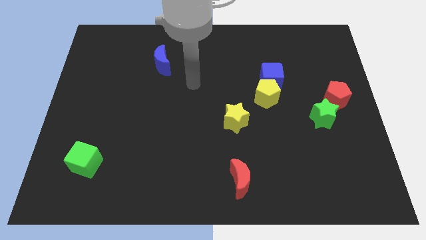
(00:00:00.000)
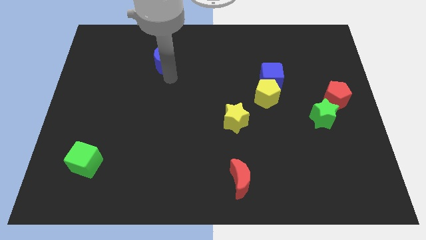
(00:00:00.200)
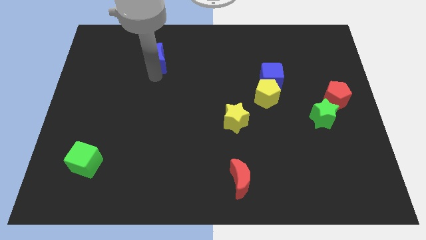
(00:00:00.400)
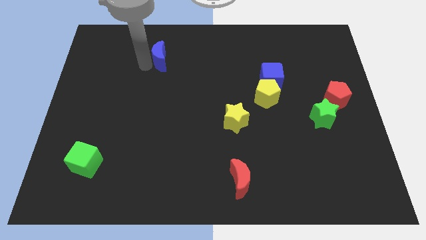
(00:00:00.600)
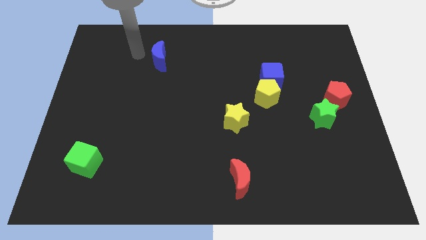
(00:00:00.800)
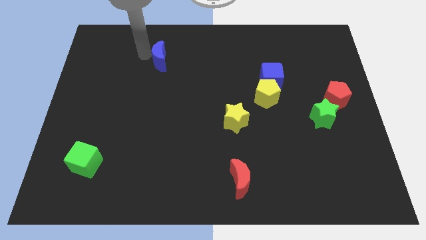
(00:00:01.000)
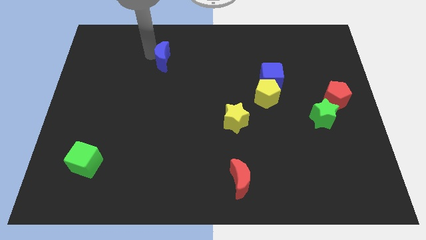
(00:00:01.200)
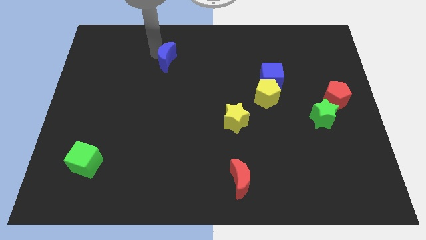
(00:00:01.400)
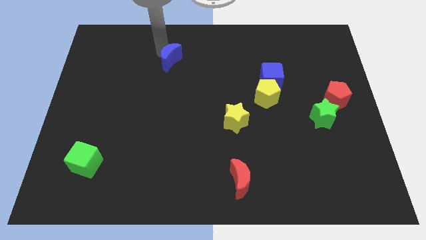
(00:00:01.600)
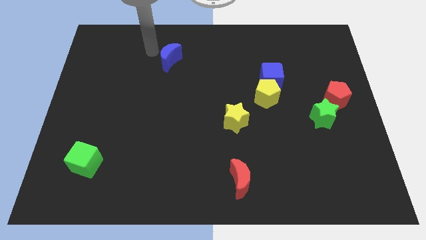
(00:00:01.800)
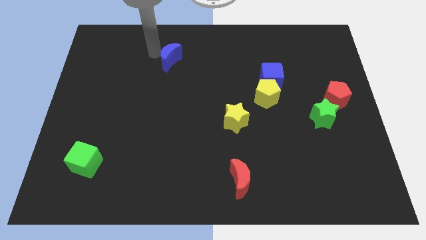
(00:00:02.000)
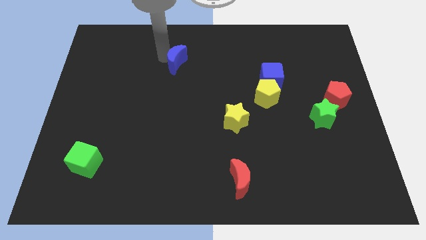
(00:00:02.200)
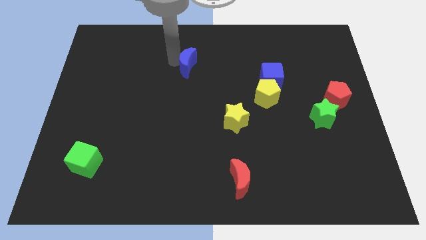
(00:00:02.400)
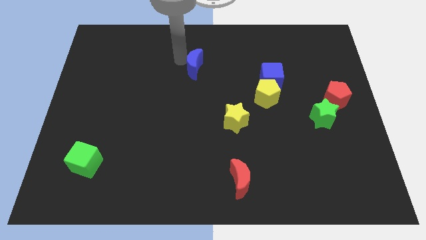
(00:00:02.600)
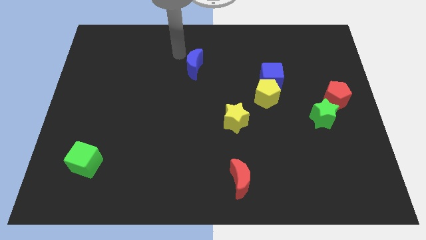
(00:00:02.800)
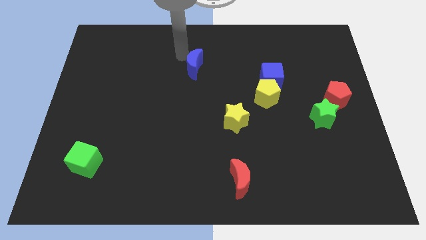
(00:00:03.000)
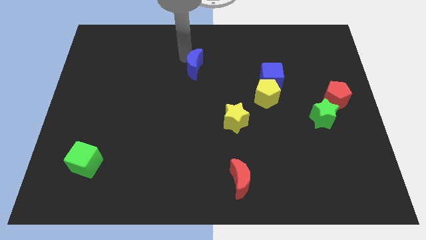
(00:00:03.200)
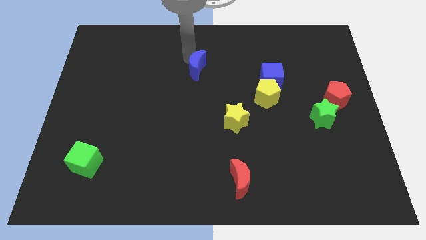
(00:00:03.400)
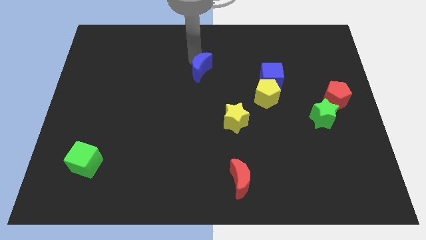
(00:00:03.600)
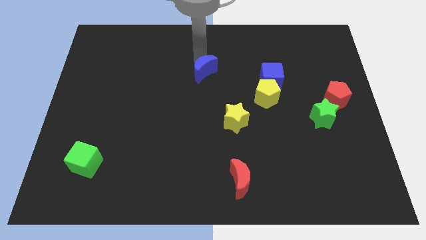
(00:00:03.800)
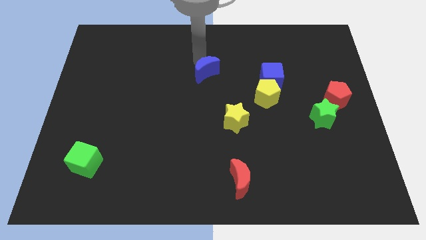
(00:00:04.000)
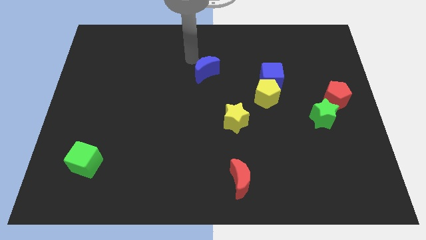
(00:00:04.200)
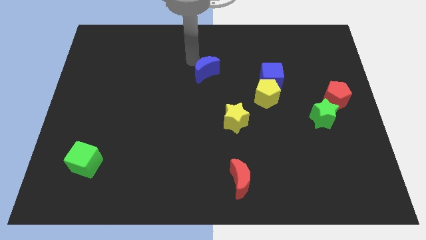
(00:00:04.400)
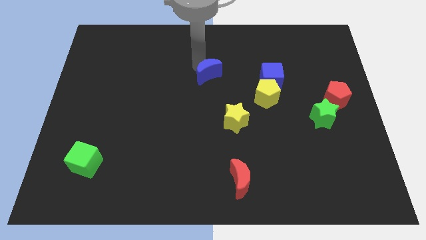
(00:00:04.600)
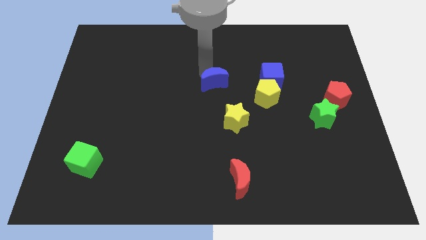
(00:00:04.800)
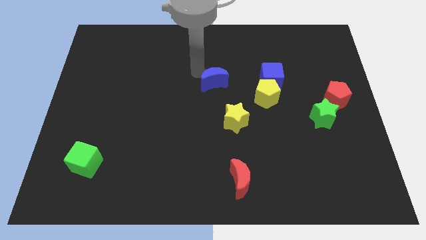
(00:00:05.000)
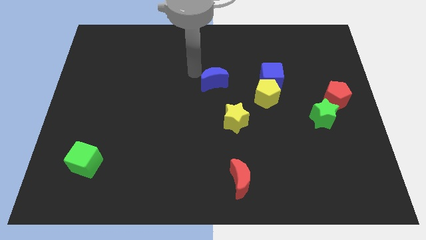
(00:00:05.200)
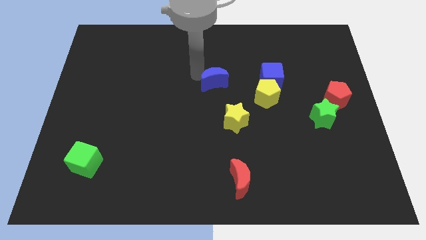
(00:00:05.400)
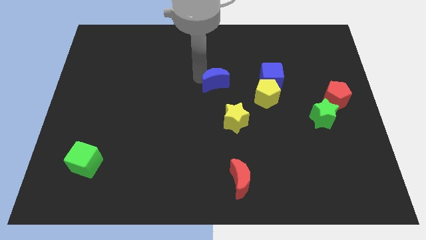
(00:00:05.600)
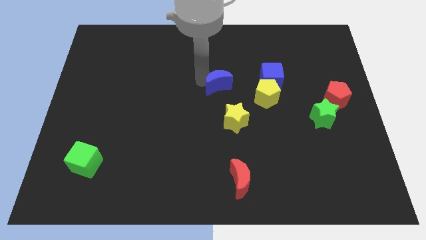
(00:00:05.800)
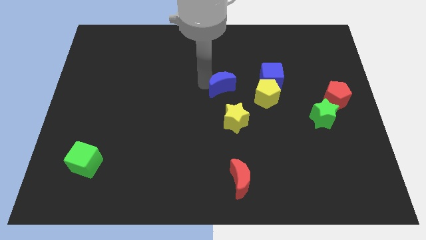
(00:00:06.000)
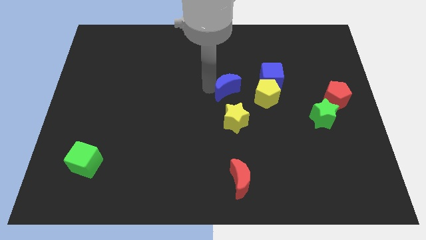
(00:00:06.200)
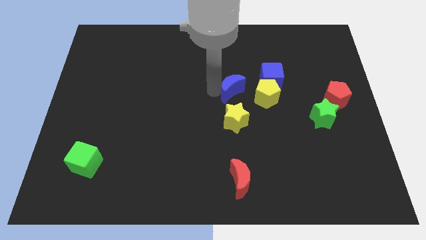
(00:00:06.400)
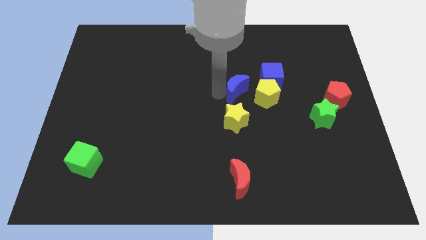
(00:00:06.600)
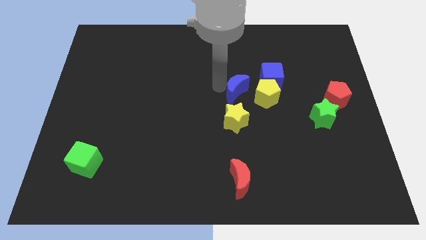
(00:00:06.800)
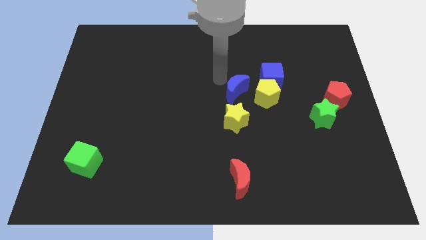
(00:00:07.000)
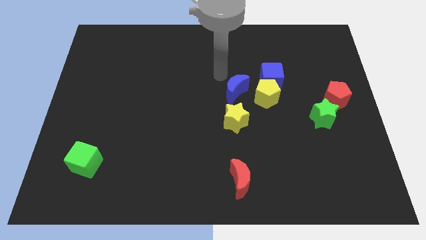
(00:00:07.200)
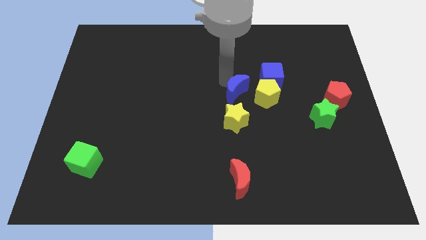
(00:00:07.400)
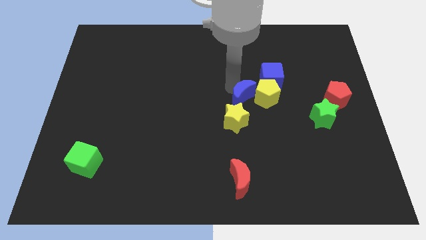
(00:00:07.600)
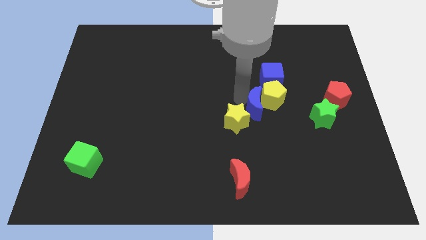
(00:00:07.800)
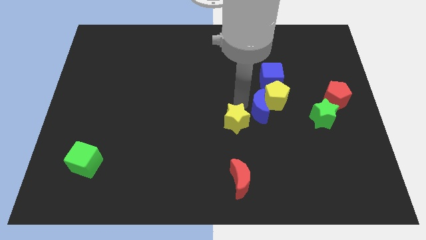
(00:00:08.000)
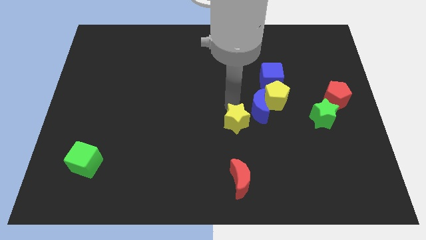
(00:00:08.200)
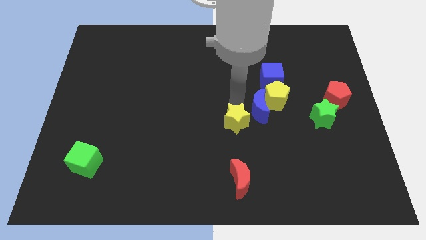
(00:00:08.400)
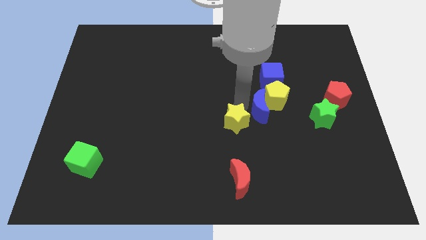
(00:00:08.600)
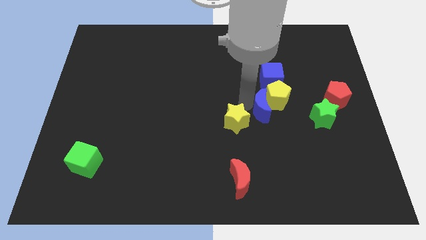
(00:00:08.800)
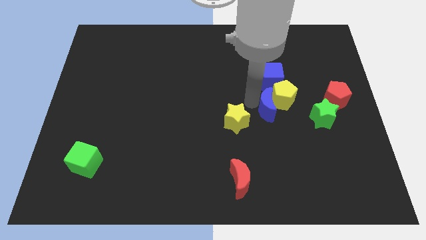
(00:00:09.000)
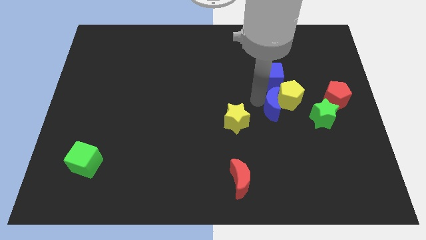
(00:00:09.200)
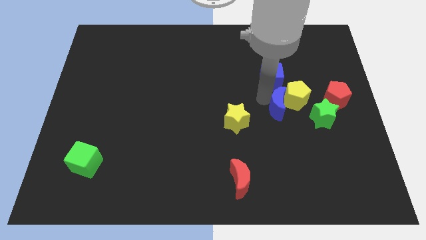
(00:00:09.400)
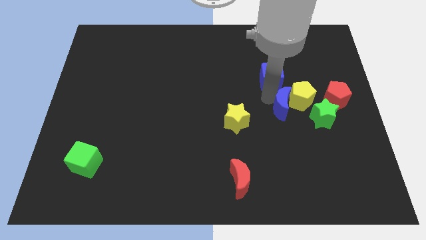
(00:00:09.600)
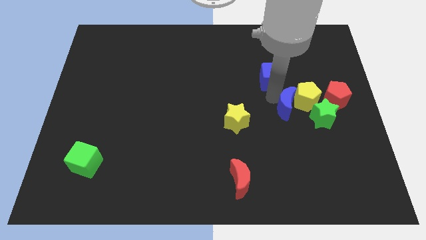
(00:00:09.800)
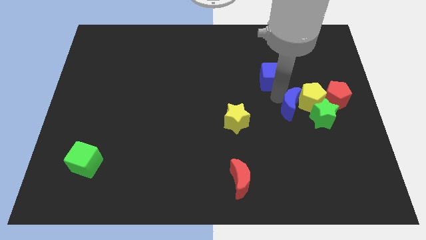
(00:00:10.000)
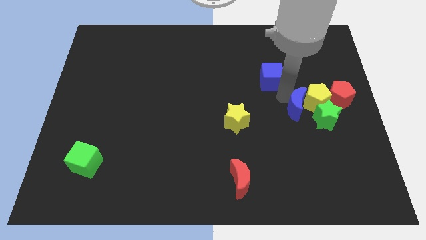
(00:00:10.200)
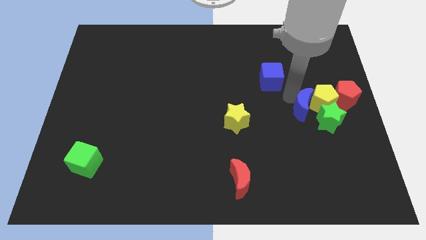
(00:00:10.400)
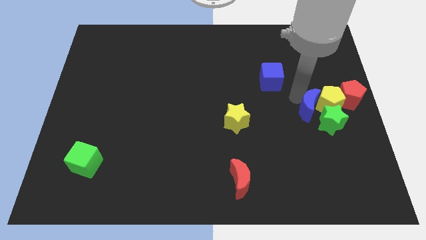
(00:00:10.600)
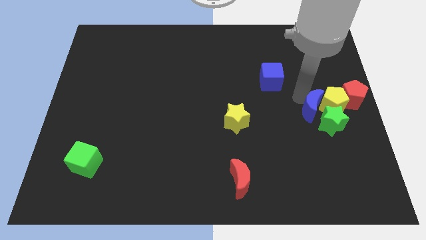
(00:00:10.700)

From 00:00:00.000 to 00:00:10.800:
slide the blue moon next to the green star

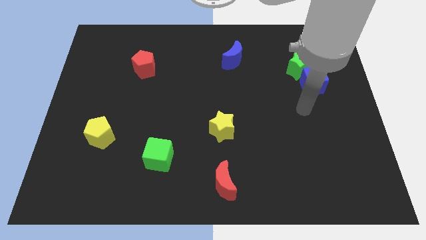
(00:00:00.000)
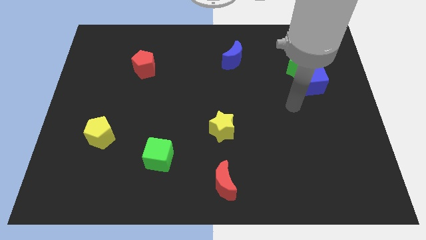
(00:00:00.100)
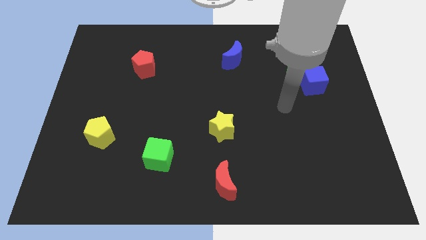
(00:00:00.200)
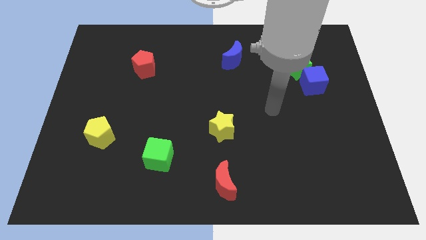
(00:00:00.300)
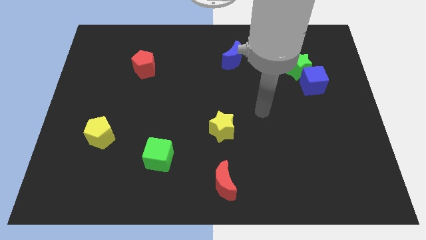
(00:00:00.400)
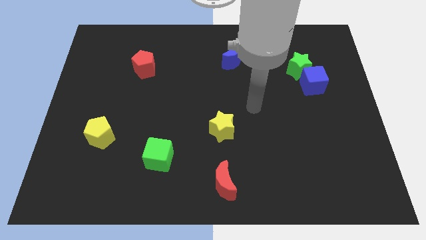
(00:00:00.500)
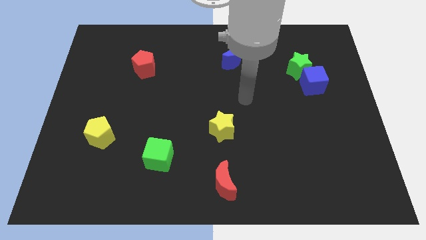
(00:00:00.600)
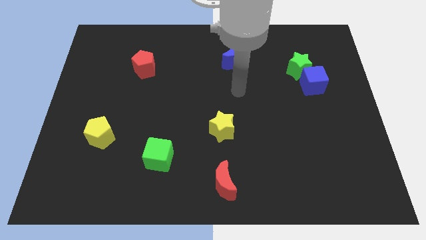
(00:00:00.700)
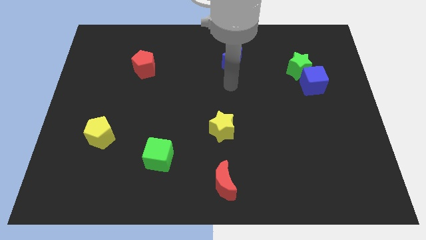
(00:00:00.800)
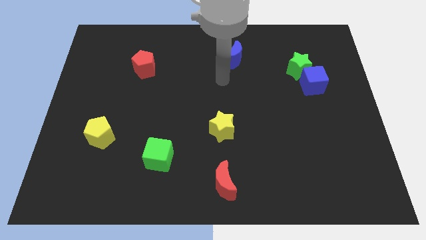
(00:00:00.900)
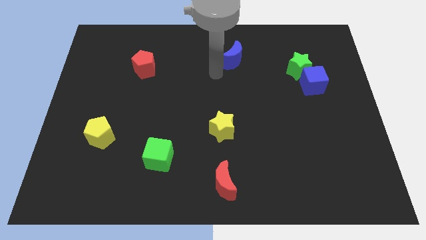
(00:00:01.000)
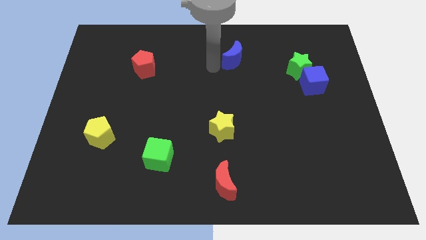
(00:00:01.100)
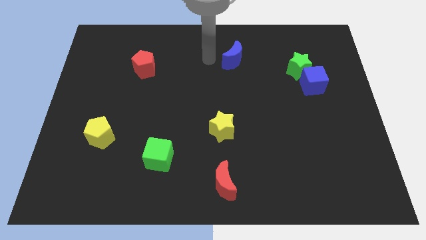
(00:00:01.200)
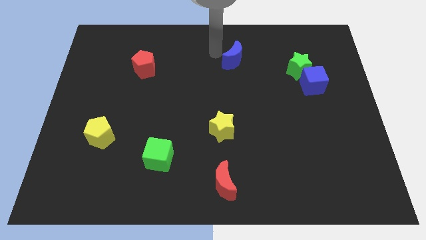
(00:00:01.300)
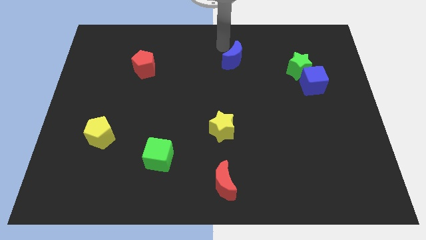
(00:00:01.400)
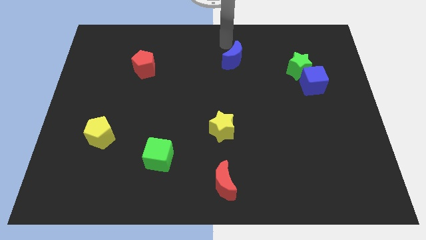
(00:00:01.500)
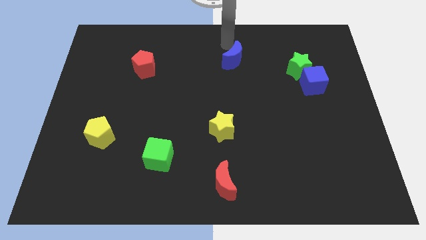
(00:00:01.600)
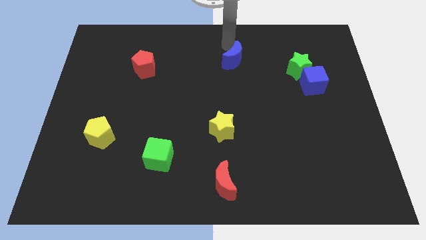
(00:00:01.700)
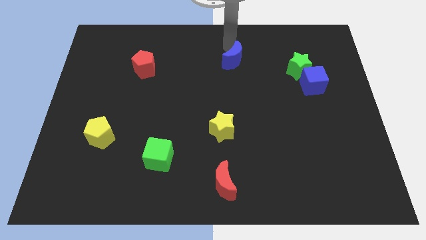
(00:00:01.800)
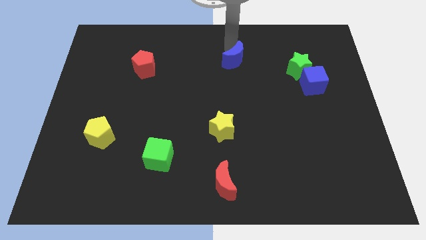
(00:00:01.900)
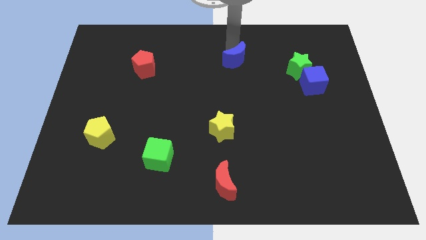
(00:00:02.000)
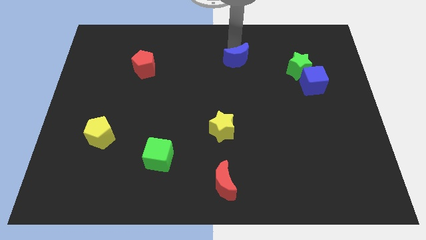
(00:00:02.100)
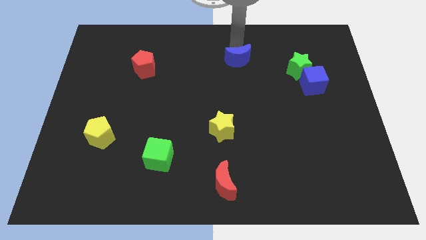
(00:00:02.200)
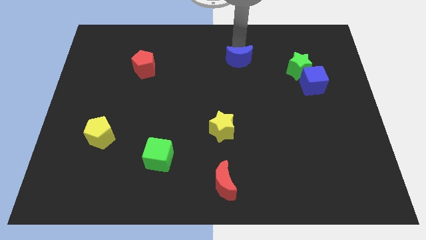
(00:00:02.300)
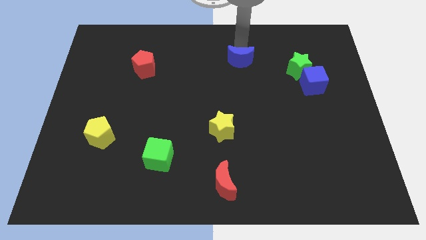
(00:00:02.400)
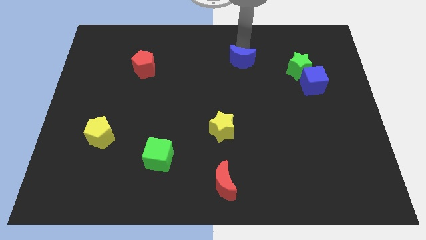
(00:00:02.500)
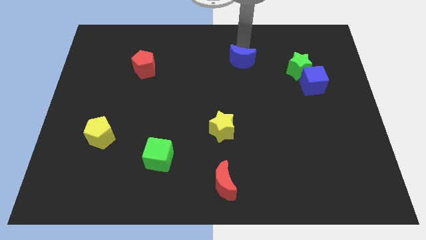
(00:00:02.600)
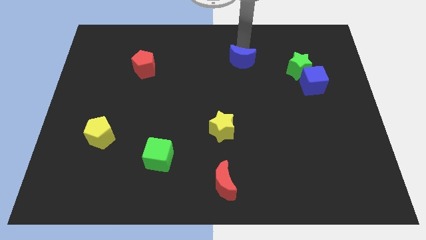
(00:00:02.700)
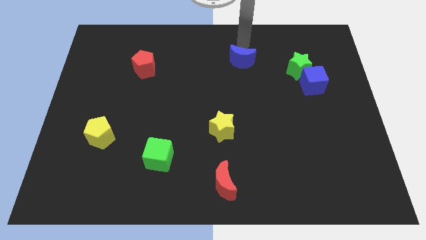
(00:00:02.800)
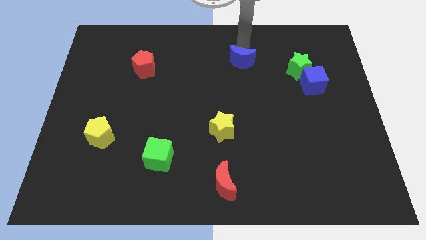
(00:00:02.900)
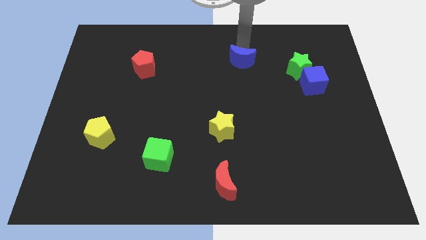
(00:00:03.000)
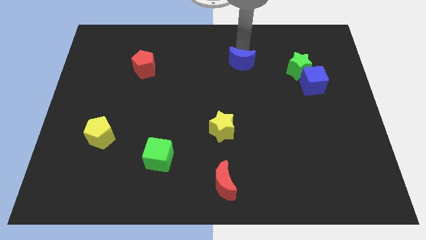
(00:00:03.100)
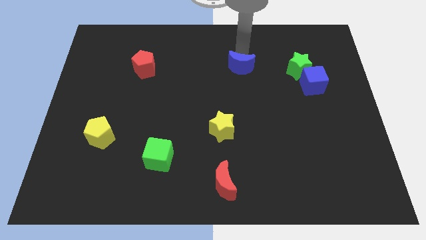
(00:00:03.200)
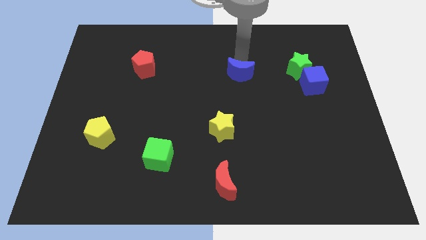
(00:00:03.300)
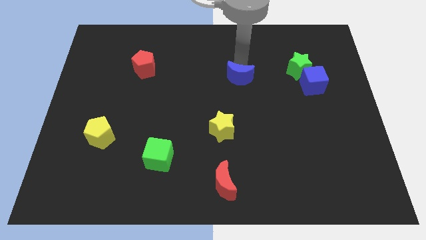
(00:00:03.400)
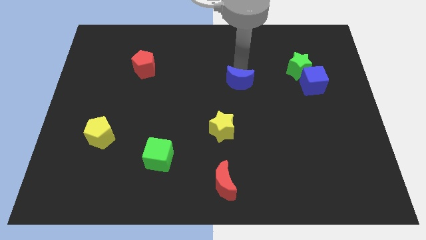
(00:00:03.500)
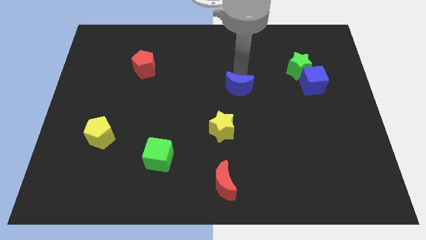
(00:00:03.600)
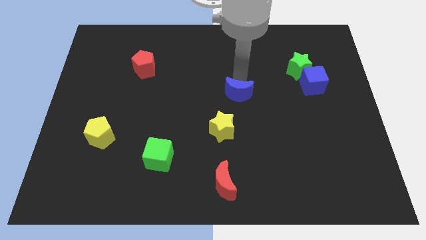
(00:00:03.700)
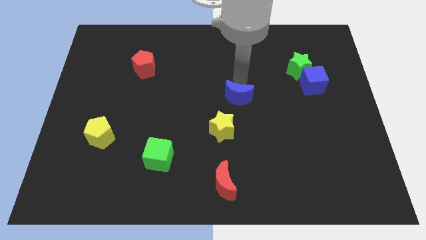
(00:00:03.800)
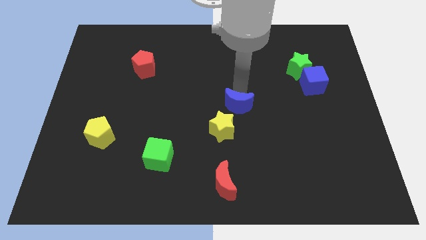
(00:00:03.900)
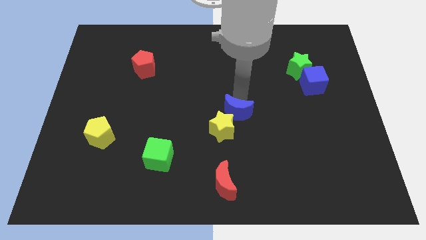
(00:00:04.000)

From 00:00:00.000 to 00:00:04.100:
put the blue moon next to the yellow star
